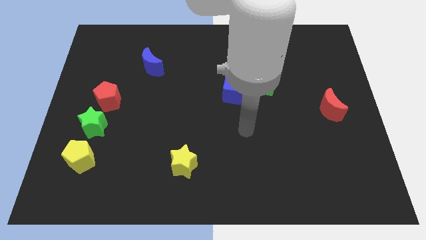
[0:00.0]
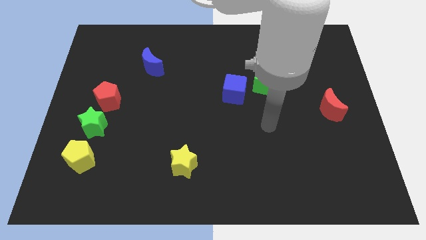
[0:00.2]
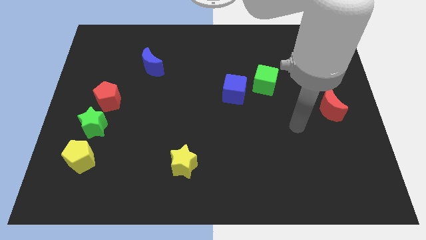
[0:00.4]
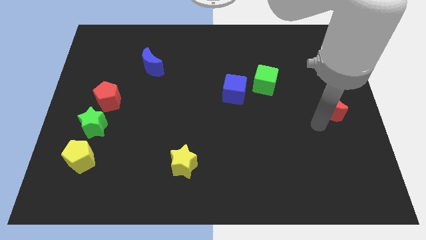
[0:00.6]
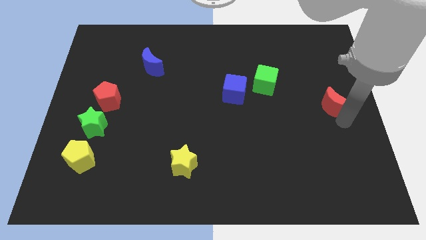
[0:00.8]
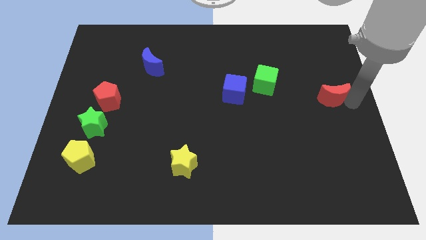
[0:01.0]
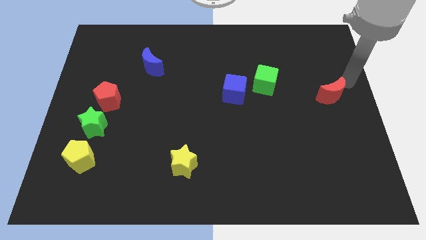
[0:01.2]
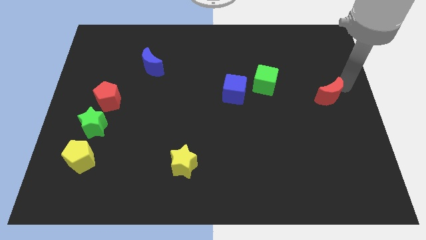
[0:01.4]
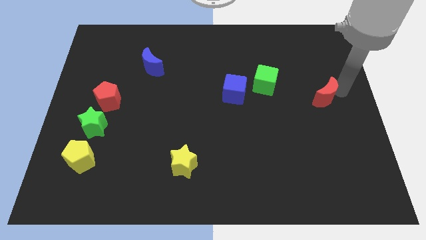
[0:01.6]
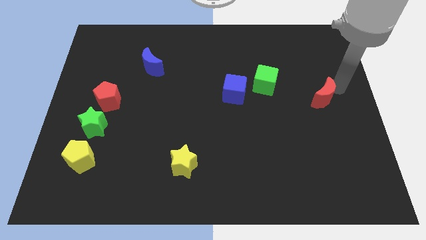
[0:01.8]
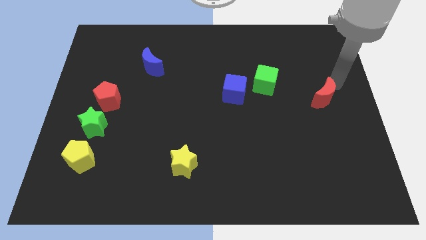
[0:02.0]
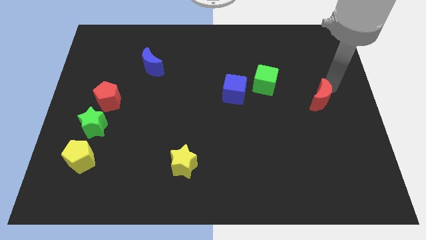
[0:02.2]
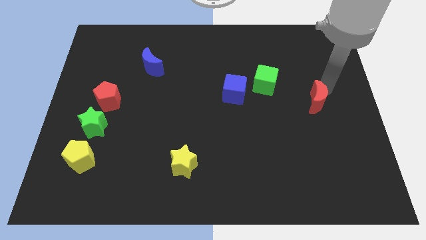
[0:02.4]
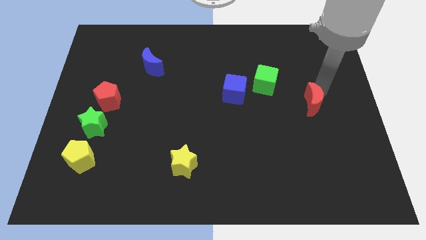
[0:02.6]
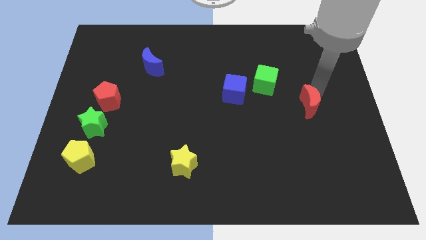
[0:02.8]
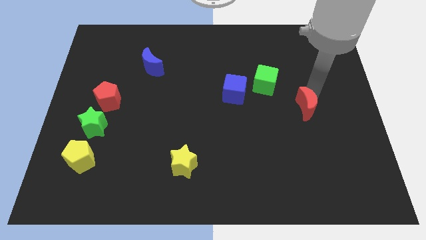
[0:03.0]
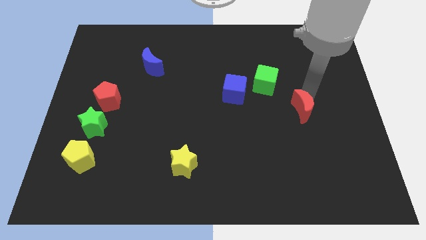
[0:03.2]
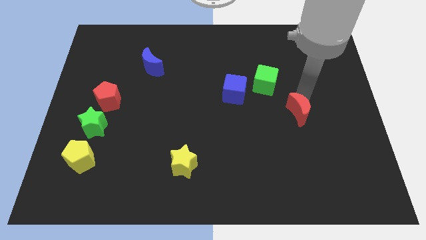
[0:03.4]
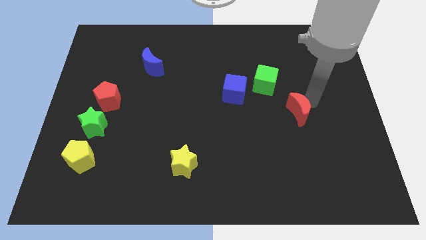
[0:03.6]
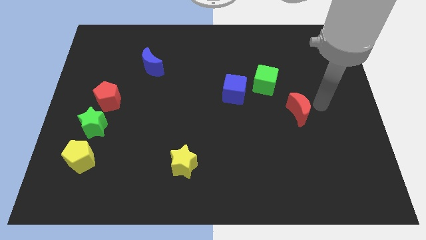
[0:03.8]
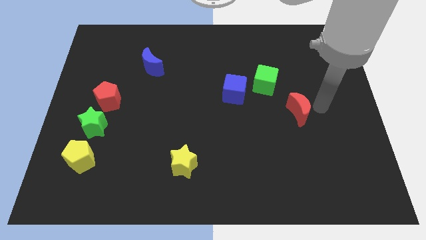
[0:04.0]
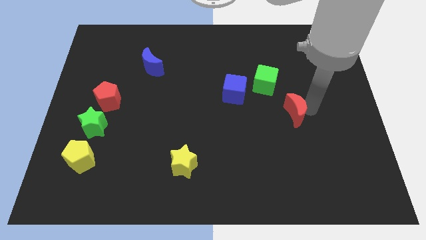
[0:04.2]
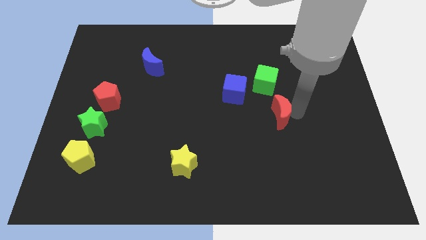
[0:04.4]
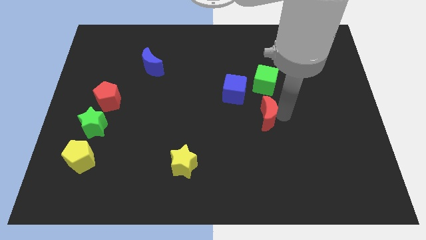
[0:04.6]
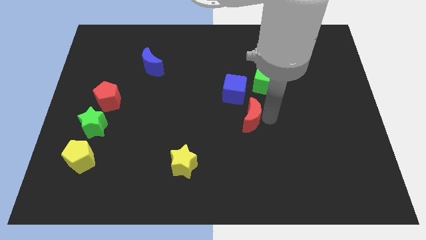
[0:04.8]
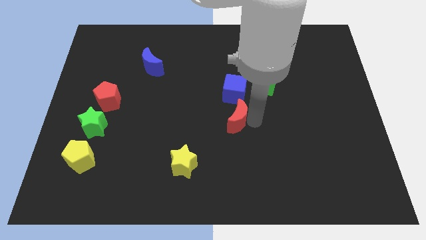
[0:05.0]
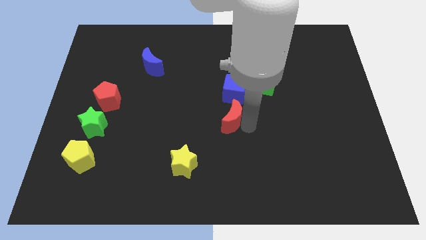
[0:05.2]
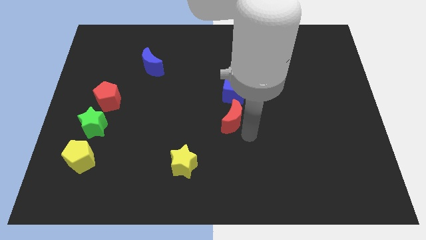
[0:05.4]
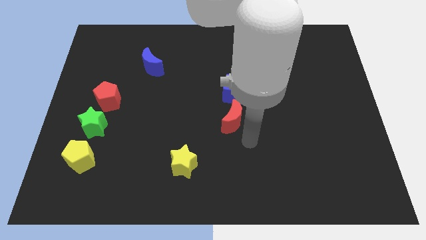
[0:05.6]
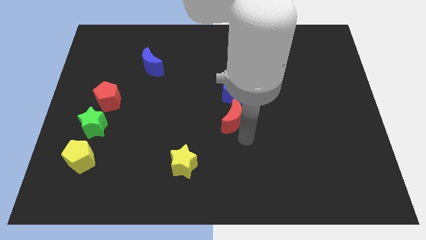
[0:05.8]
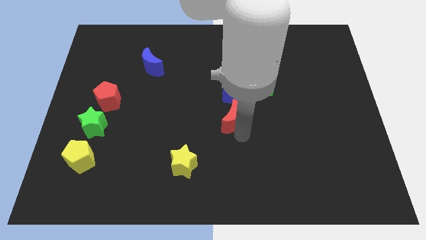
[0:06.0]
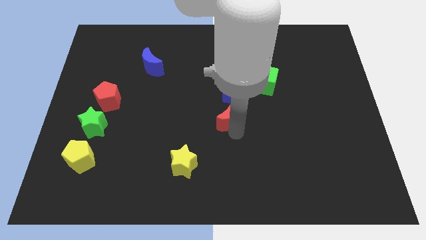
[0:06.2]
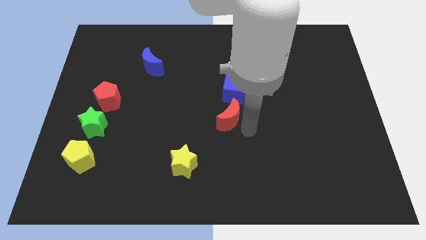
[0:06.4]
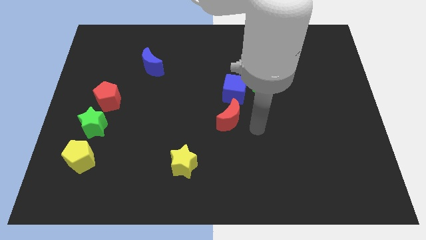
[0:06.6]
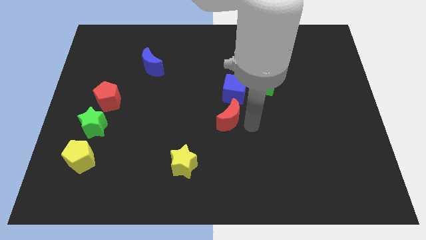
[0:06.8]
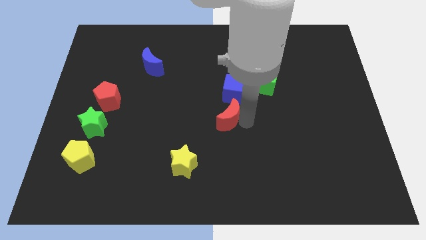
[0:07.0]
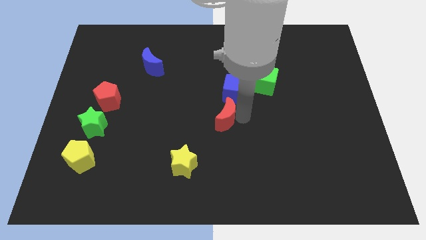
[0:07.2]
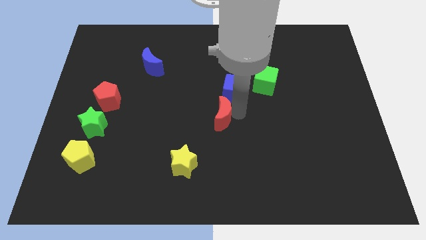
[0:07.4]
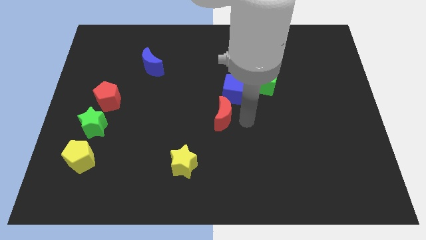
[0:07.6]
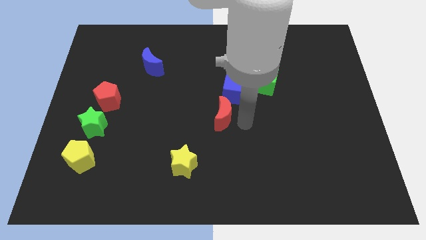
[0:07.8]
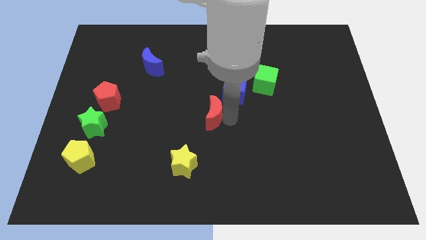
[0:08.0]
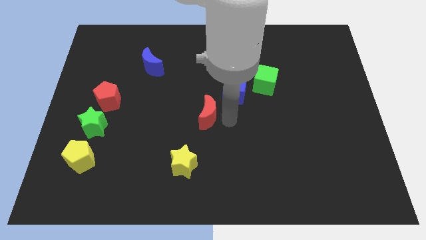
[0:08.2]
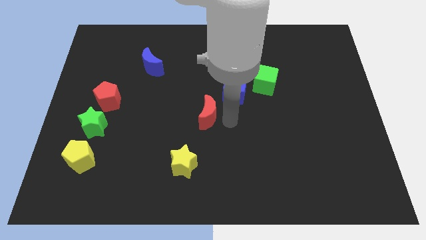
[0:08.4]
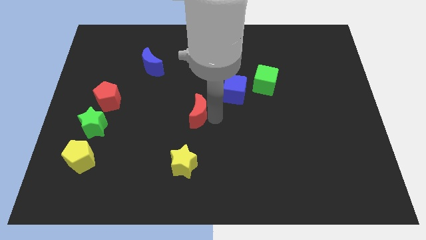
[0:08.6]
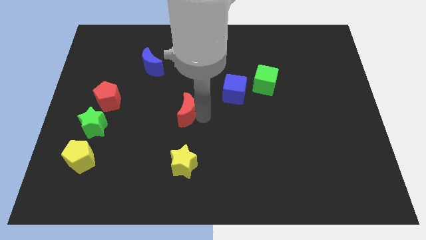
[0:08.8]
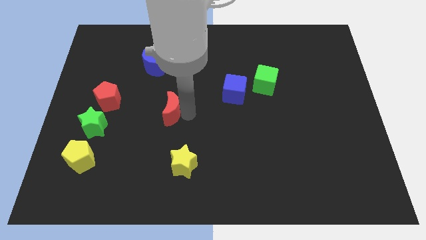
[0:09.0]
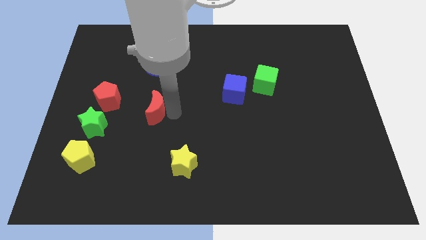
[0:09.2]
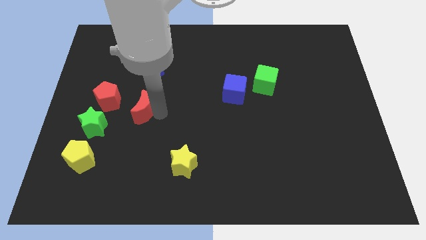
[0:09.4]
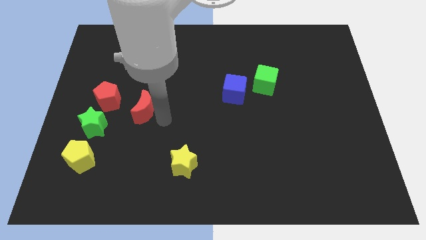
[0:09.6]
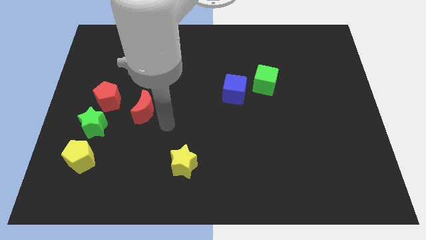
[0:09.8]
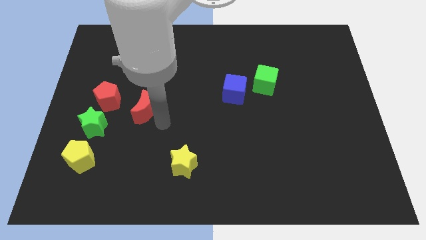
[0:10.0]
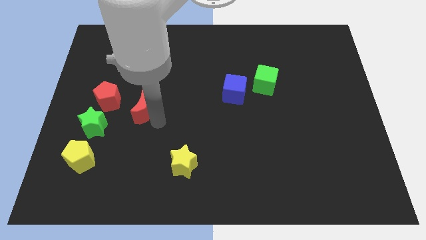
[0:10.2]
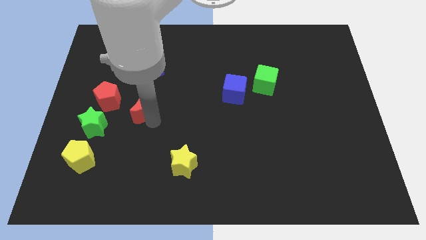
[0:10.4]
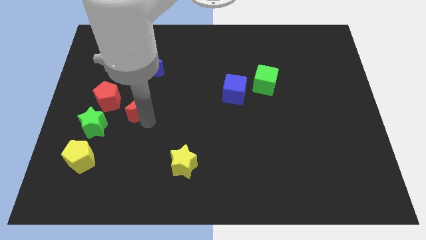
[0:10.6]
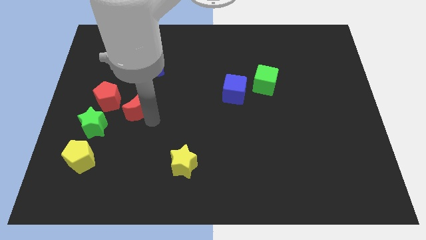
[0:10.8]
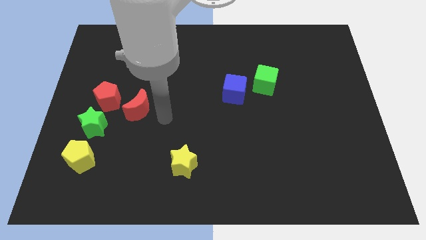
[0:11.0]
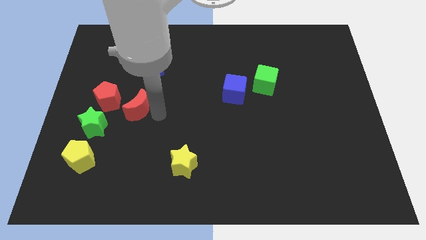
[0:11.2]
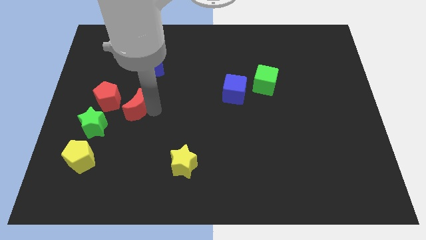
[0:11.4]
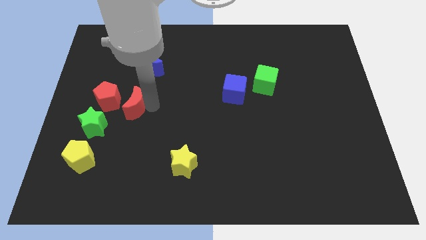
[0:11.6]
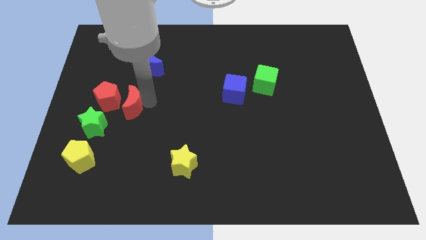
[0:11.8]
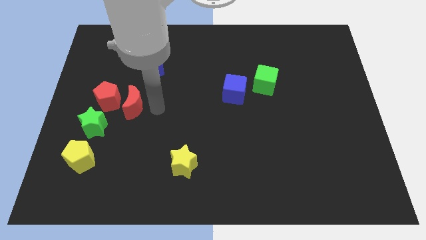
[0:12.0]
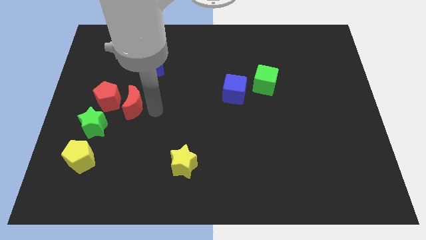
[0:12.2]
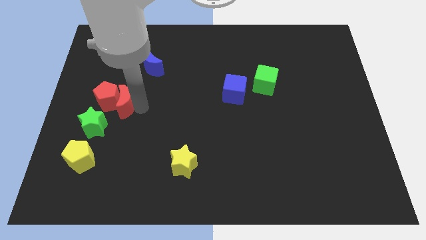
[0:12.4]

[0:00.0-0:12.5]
slide the red moon next to the red pentagon

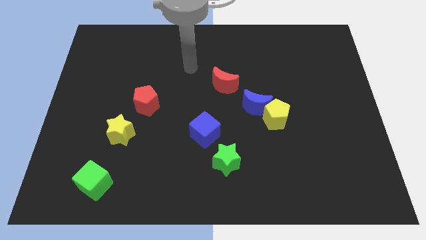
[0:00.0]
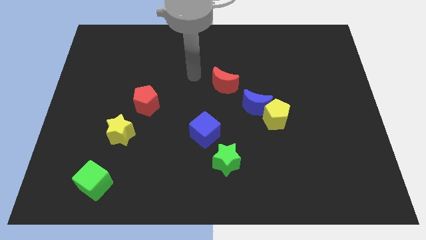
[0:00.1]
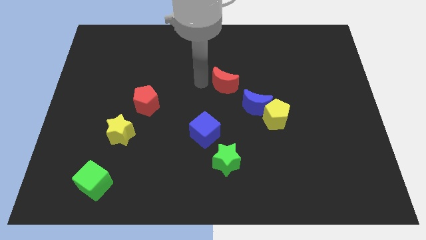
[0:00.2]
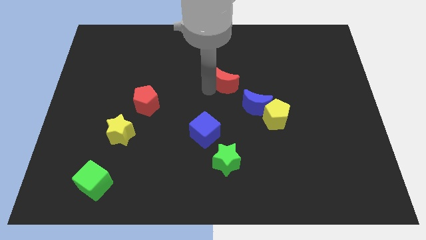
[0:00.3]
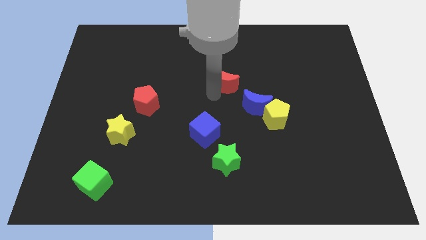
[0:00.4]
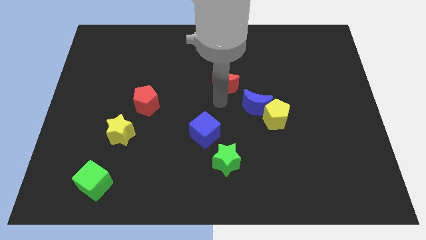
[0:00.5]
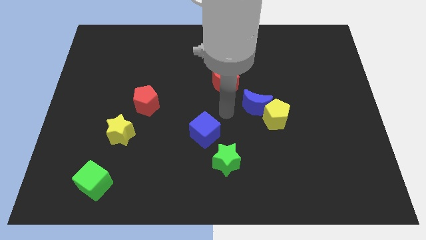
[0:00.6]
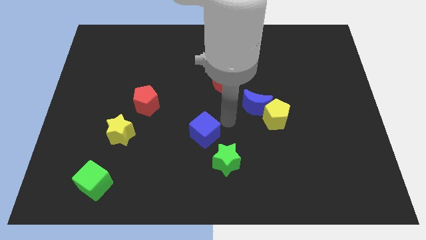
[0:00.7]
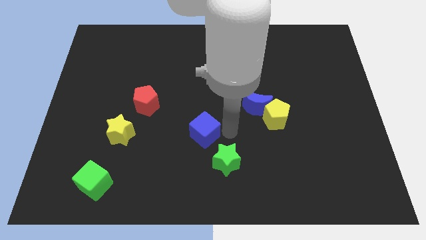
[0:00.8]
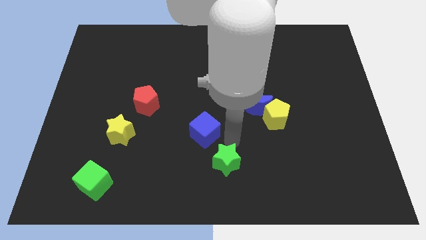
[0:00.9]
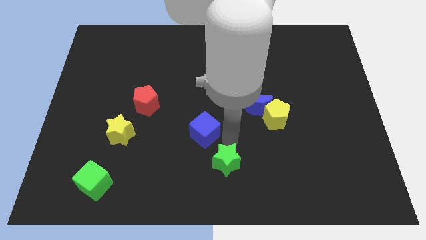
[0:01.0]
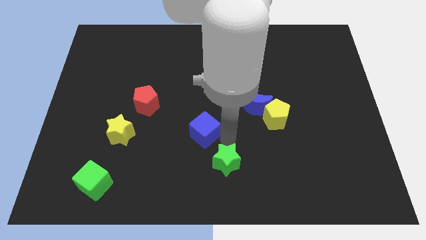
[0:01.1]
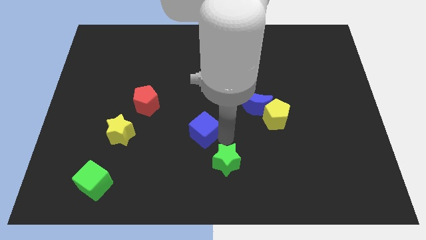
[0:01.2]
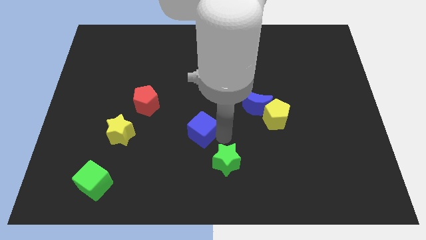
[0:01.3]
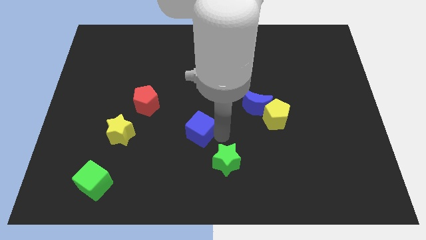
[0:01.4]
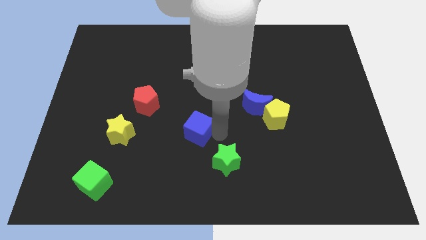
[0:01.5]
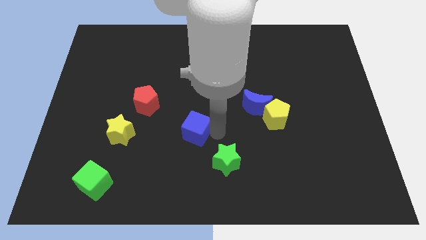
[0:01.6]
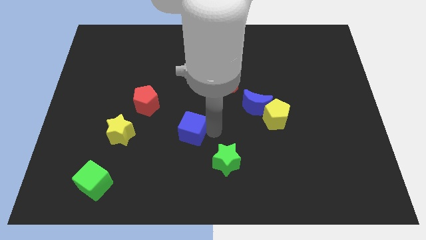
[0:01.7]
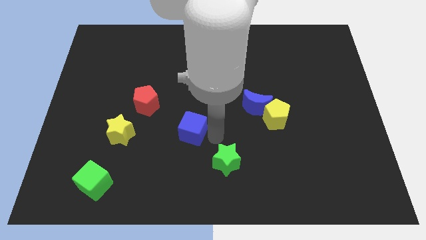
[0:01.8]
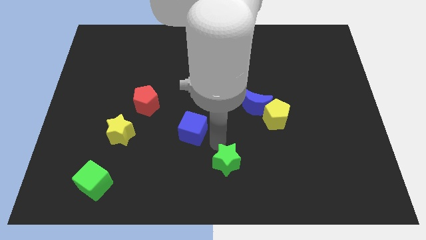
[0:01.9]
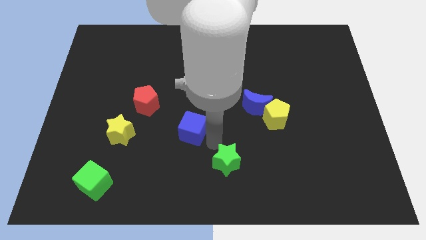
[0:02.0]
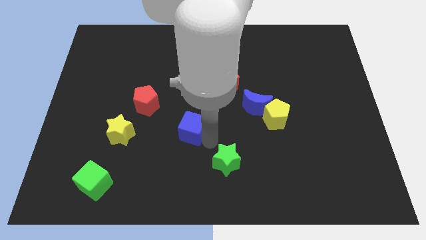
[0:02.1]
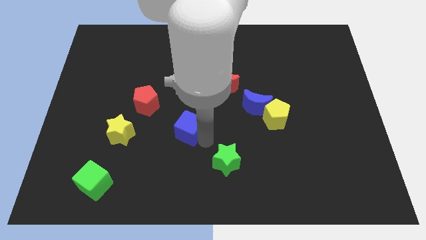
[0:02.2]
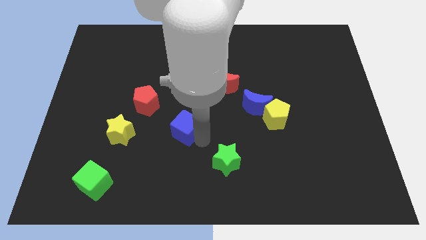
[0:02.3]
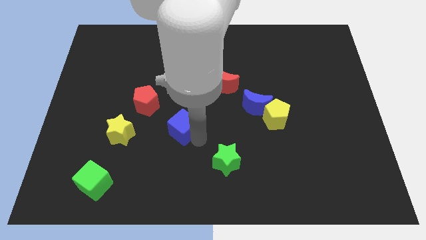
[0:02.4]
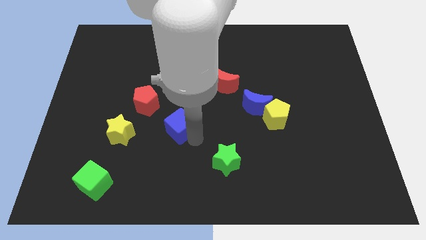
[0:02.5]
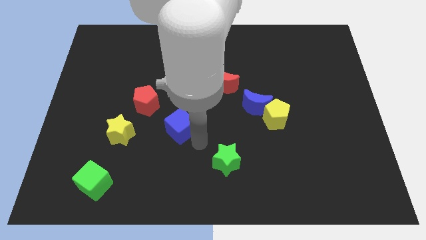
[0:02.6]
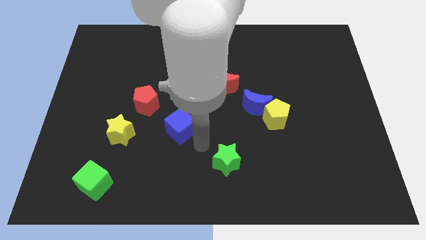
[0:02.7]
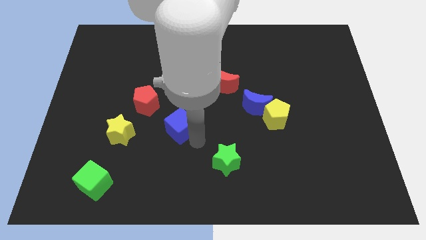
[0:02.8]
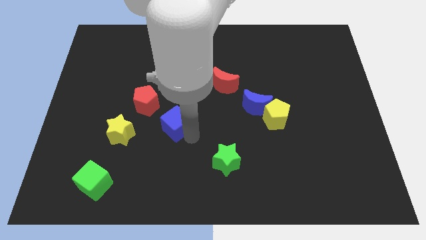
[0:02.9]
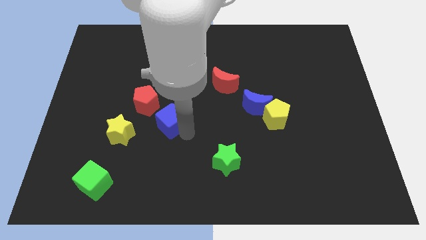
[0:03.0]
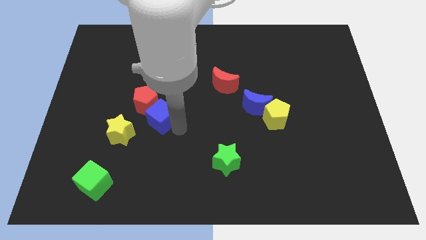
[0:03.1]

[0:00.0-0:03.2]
slide the blue cube close to the red pentagon
